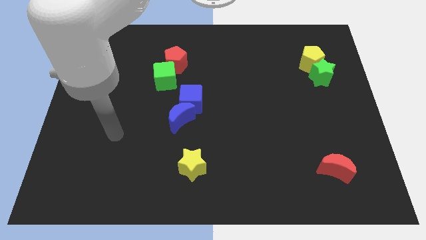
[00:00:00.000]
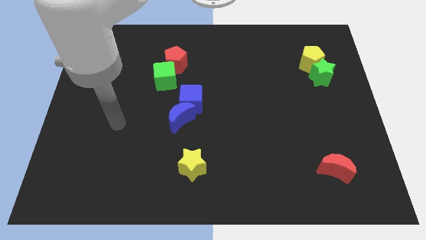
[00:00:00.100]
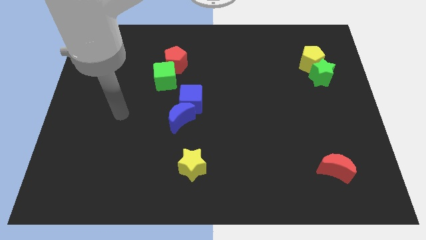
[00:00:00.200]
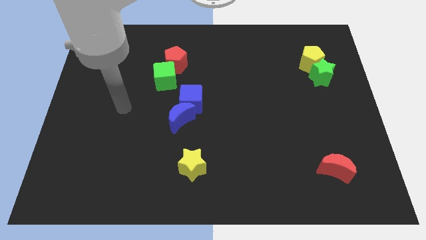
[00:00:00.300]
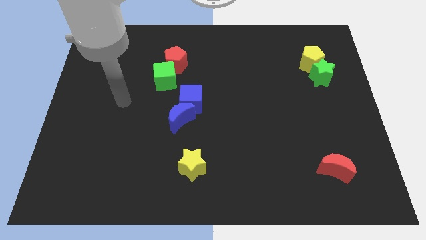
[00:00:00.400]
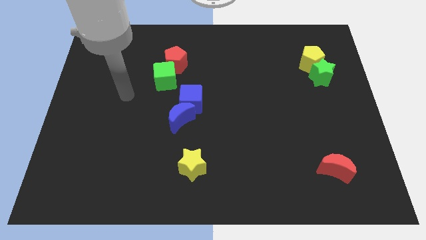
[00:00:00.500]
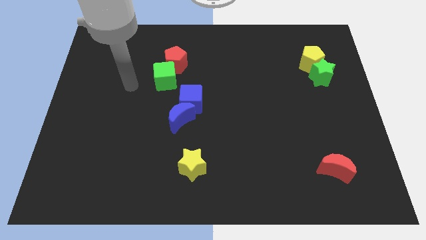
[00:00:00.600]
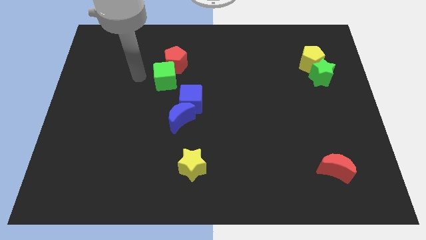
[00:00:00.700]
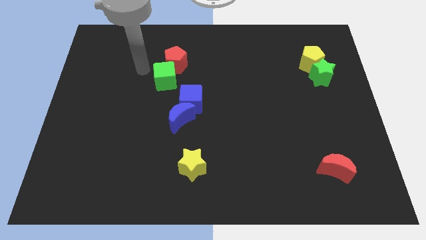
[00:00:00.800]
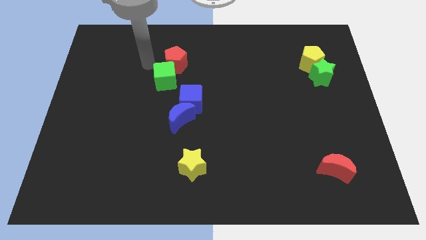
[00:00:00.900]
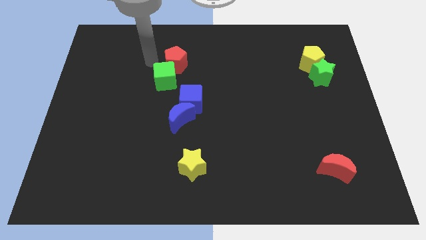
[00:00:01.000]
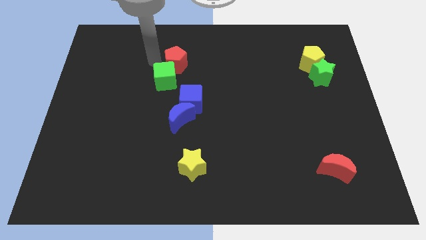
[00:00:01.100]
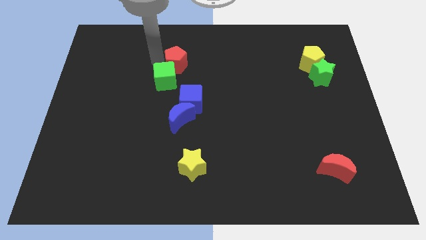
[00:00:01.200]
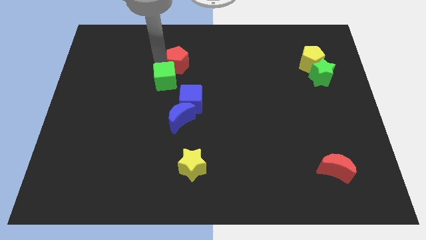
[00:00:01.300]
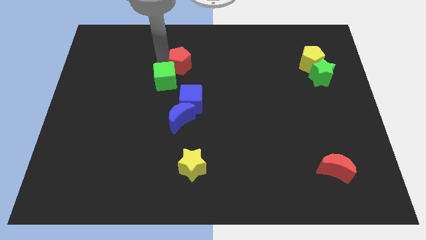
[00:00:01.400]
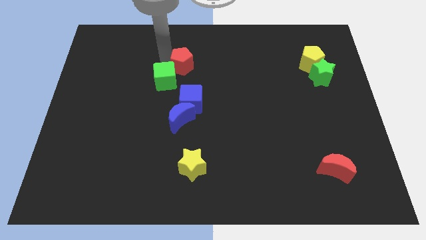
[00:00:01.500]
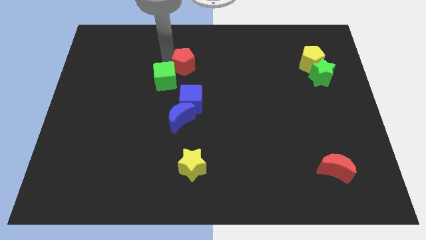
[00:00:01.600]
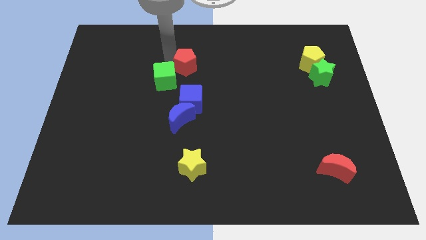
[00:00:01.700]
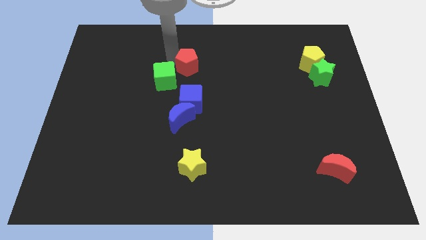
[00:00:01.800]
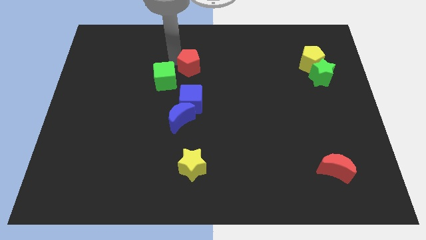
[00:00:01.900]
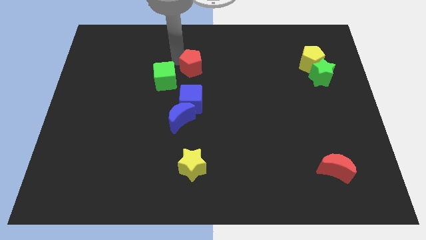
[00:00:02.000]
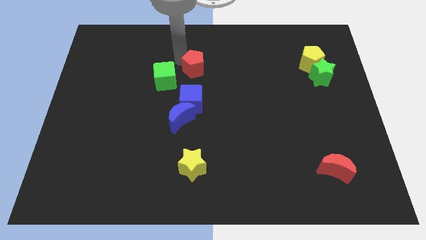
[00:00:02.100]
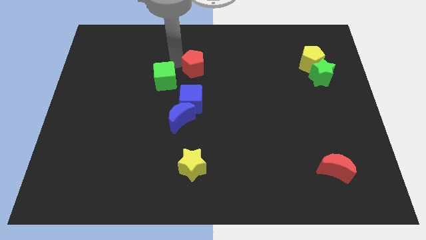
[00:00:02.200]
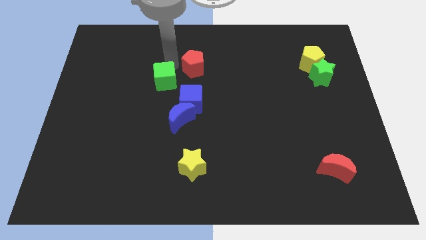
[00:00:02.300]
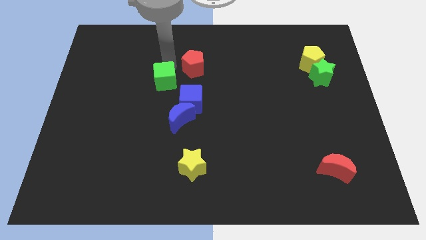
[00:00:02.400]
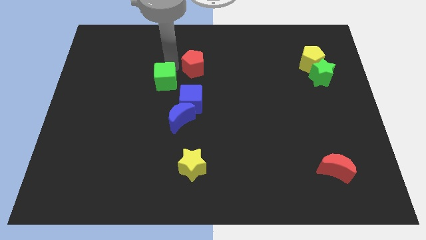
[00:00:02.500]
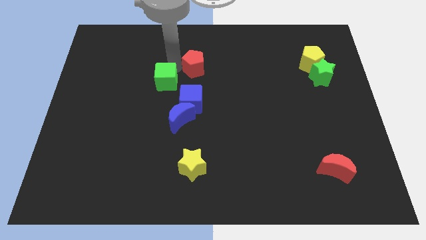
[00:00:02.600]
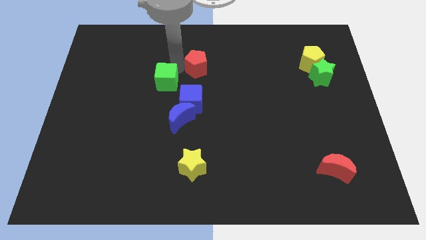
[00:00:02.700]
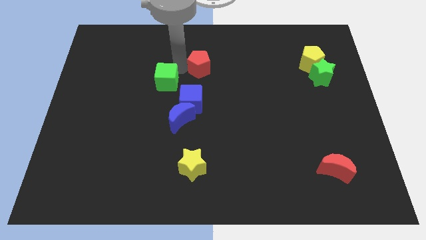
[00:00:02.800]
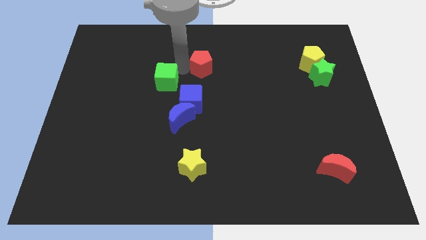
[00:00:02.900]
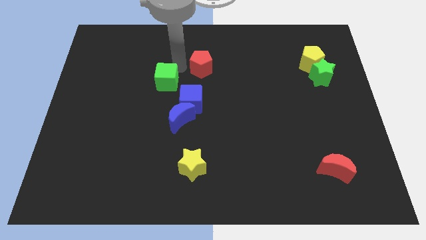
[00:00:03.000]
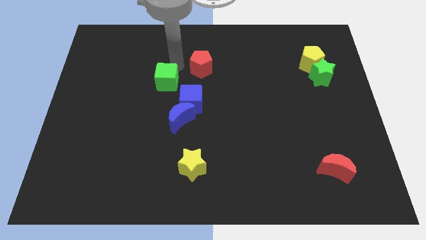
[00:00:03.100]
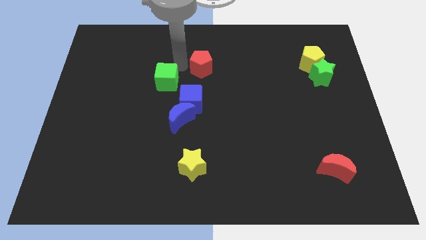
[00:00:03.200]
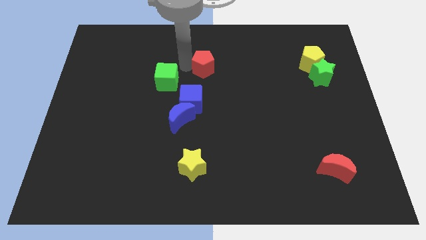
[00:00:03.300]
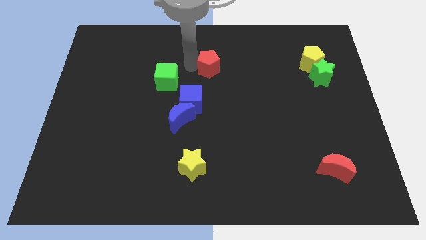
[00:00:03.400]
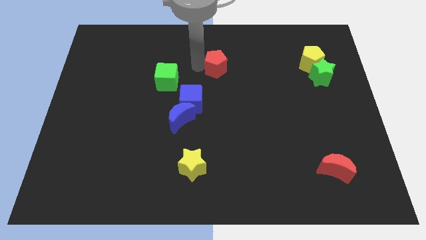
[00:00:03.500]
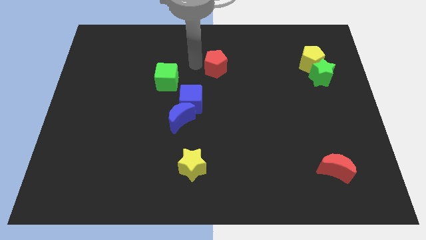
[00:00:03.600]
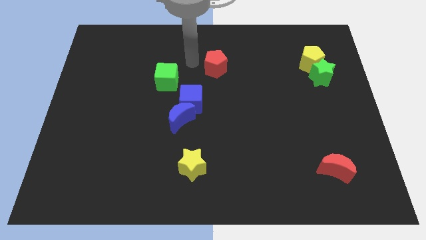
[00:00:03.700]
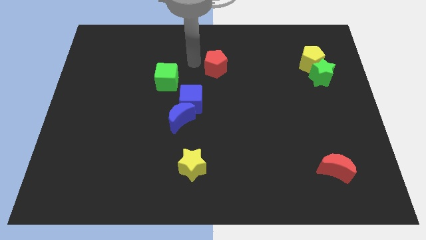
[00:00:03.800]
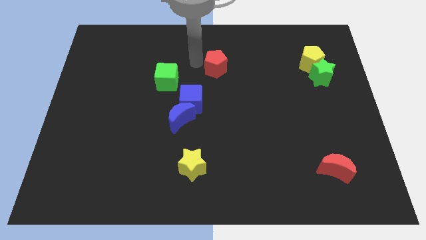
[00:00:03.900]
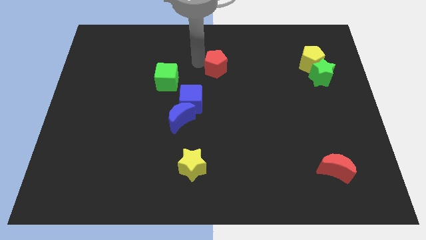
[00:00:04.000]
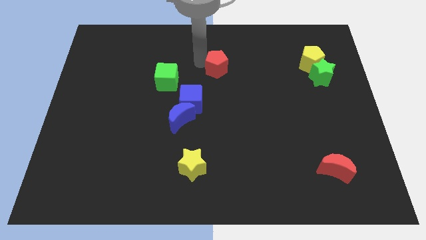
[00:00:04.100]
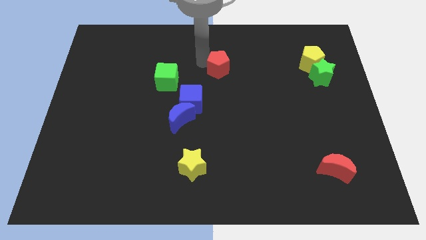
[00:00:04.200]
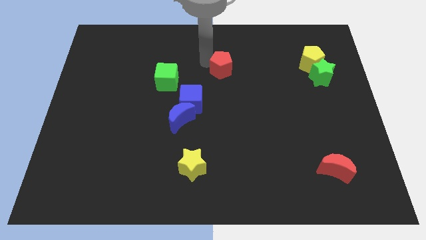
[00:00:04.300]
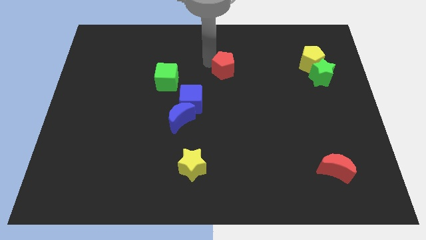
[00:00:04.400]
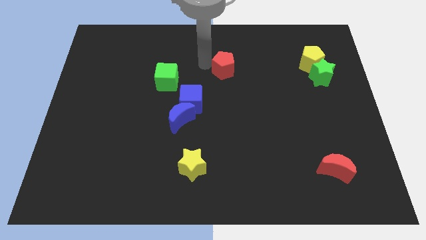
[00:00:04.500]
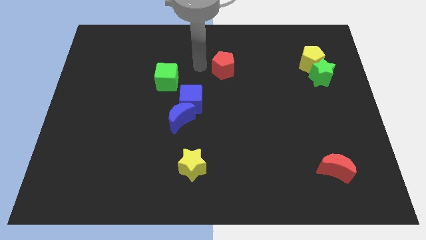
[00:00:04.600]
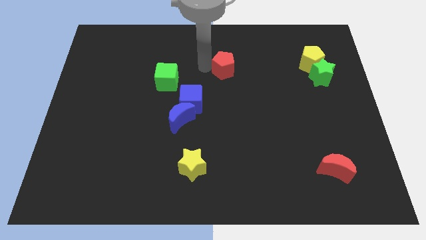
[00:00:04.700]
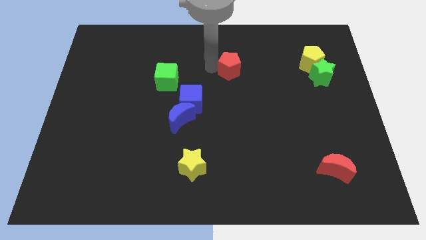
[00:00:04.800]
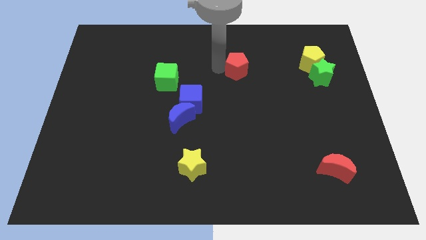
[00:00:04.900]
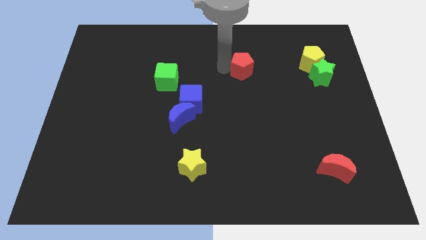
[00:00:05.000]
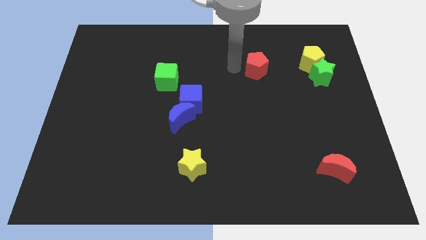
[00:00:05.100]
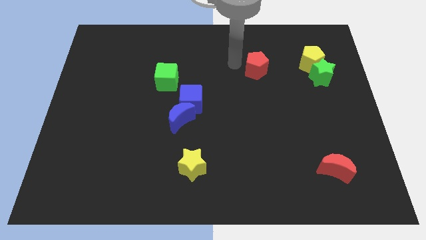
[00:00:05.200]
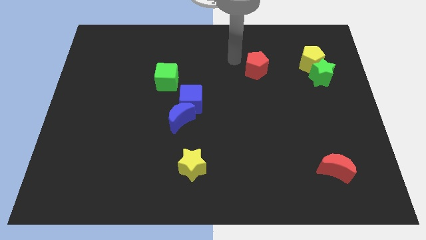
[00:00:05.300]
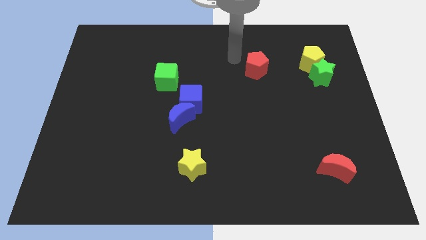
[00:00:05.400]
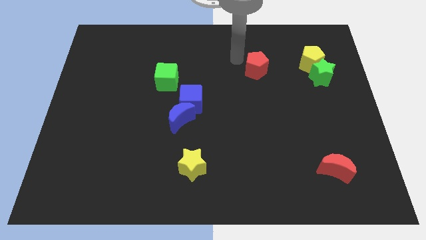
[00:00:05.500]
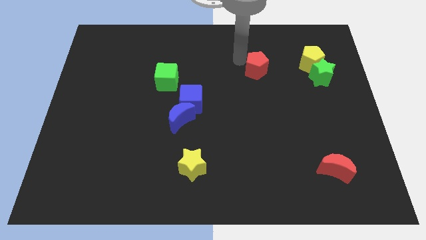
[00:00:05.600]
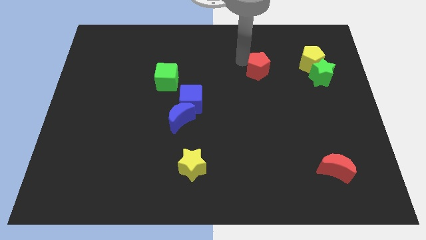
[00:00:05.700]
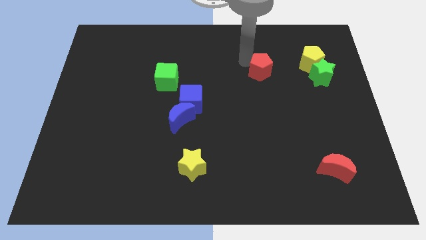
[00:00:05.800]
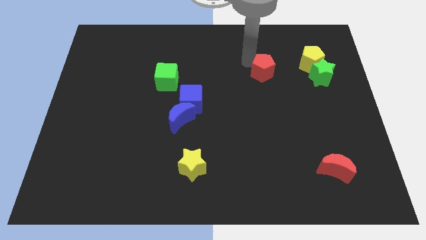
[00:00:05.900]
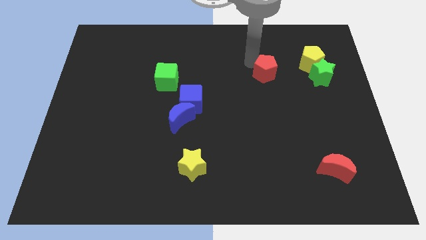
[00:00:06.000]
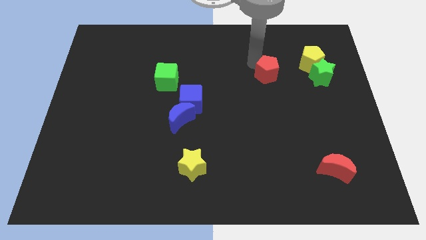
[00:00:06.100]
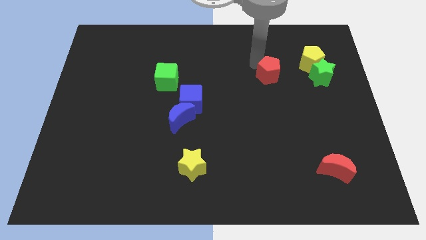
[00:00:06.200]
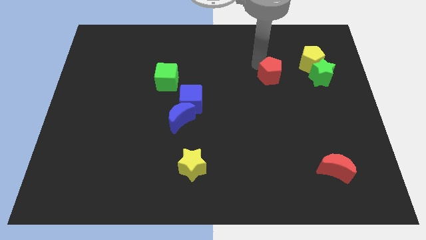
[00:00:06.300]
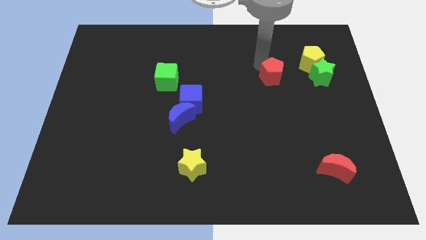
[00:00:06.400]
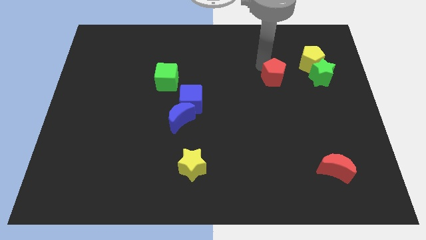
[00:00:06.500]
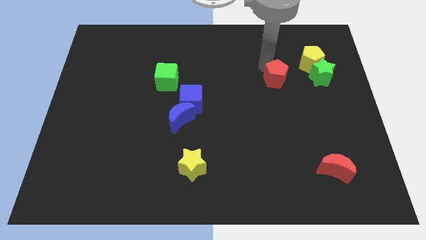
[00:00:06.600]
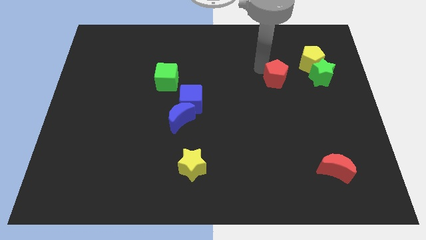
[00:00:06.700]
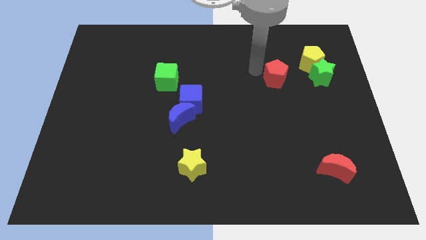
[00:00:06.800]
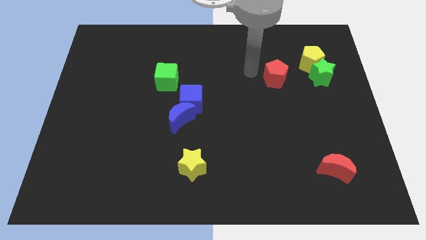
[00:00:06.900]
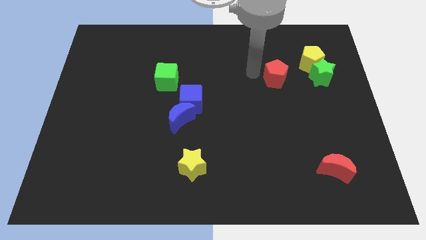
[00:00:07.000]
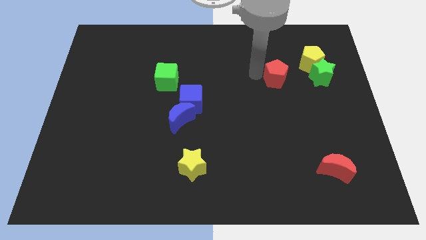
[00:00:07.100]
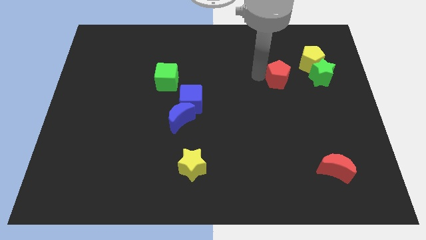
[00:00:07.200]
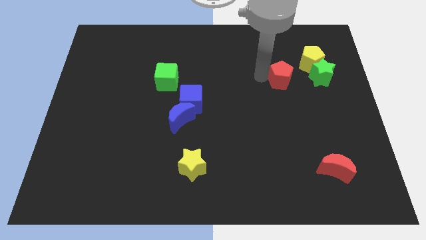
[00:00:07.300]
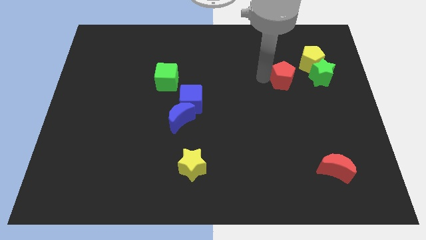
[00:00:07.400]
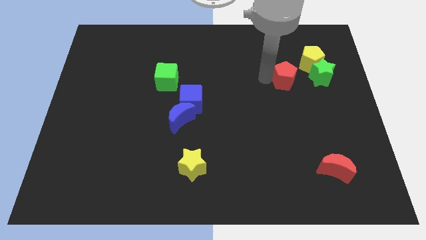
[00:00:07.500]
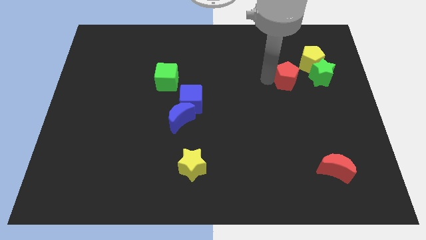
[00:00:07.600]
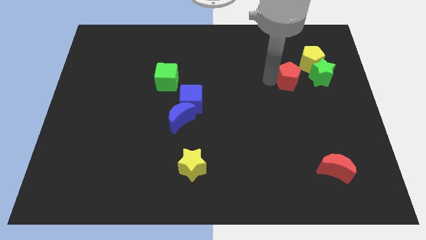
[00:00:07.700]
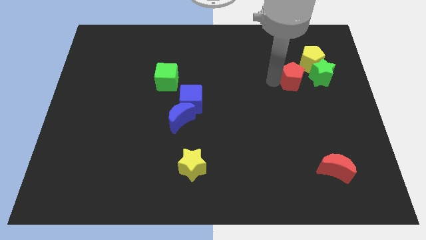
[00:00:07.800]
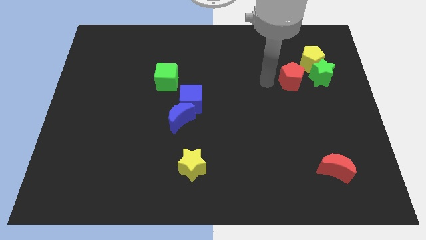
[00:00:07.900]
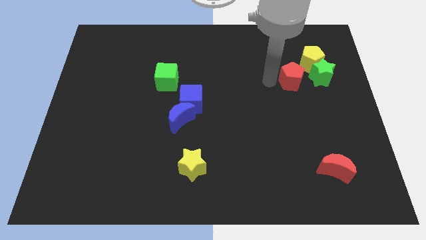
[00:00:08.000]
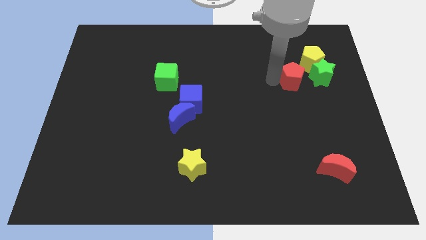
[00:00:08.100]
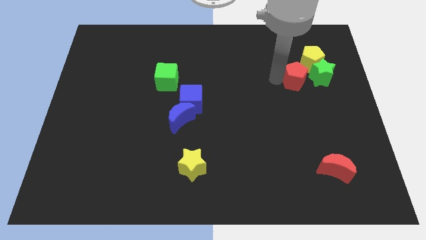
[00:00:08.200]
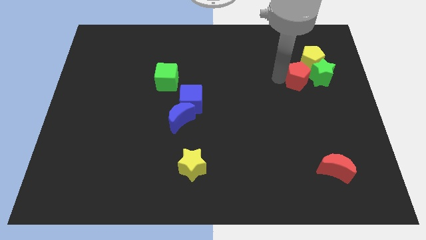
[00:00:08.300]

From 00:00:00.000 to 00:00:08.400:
push the red pentagon towards the green star
